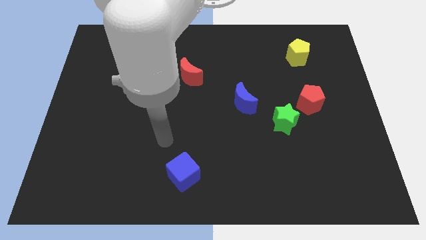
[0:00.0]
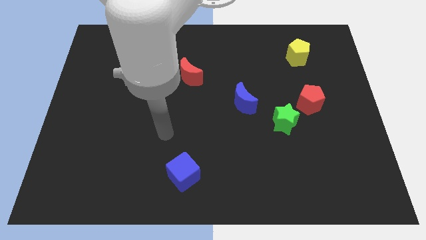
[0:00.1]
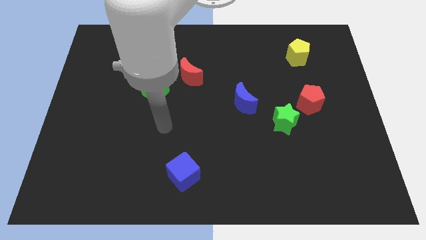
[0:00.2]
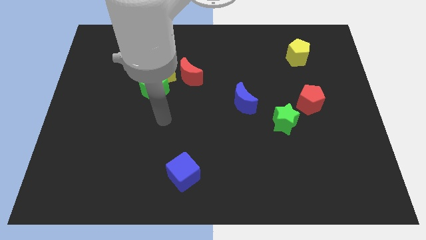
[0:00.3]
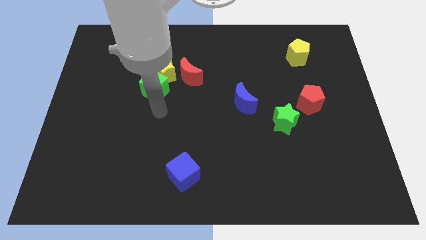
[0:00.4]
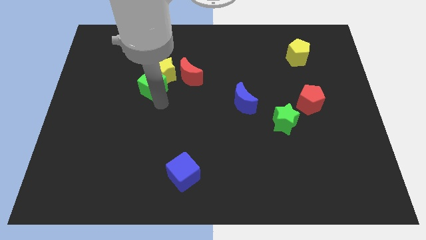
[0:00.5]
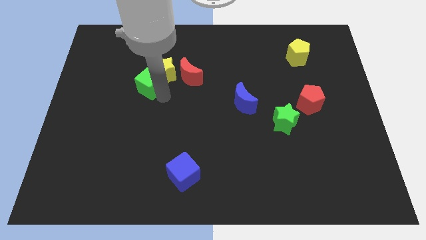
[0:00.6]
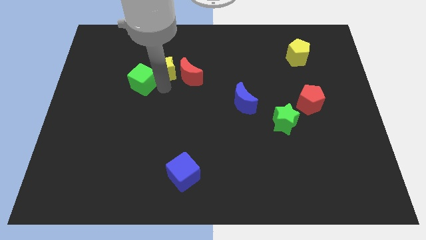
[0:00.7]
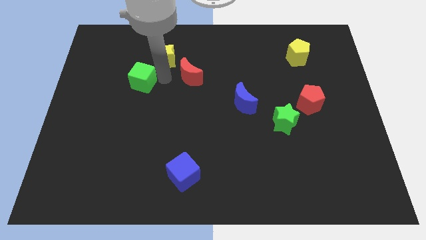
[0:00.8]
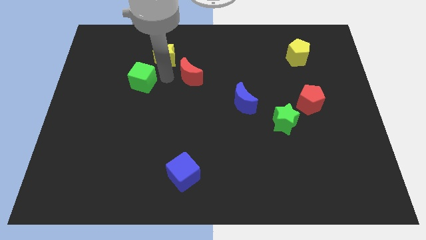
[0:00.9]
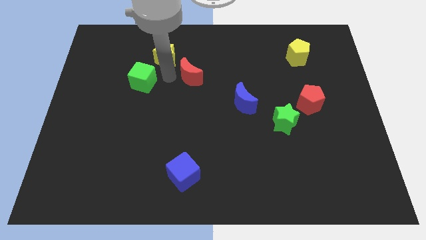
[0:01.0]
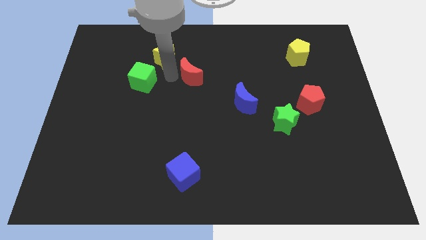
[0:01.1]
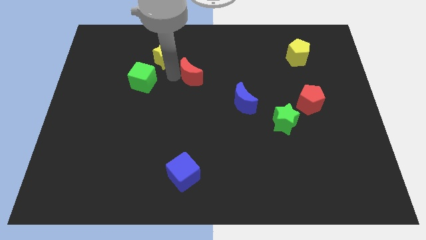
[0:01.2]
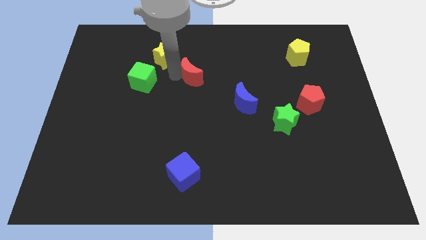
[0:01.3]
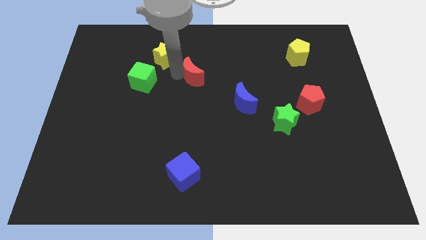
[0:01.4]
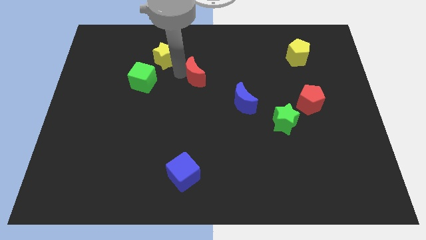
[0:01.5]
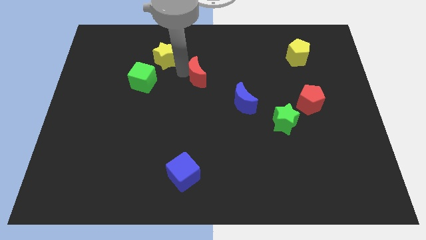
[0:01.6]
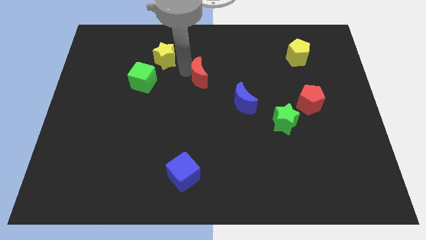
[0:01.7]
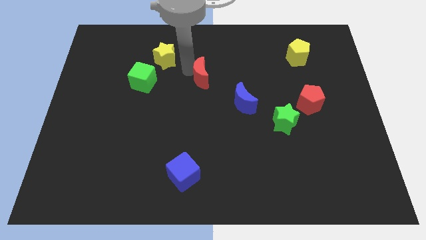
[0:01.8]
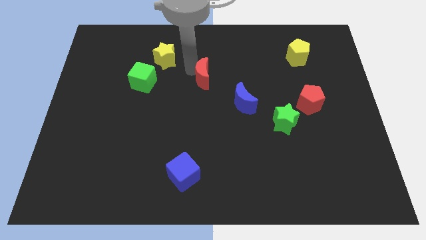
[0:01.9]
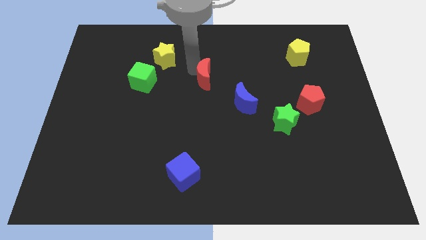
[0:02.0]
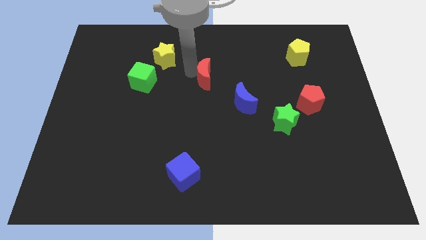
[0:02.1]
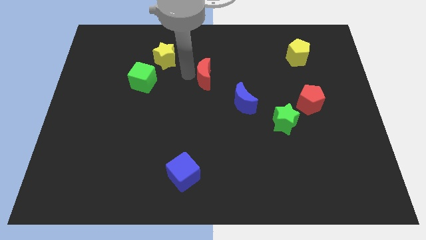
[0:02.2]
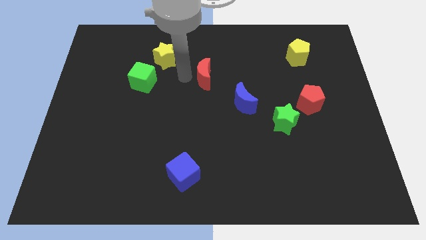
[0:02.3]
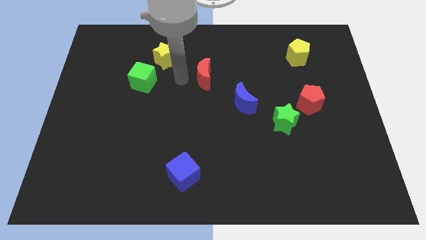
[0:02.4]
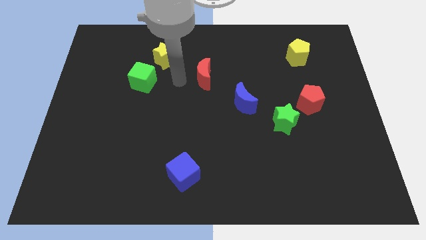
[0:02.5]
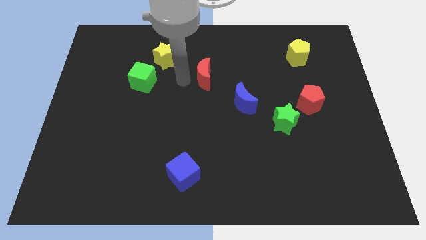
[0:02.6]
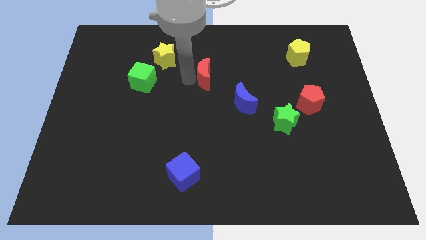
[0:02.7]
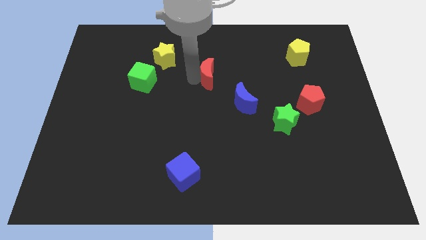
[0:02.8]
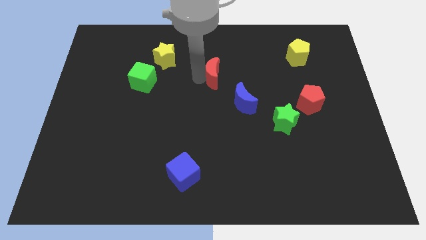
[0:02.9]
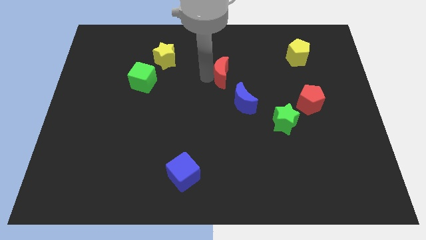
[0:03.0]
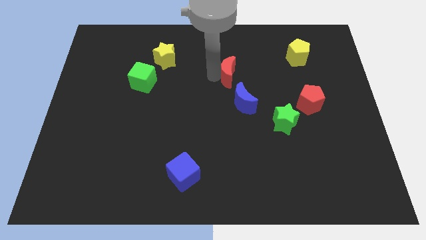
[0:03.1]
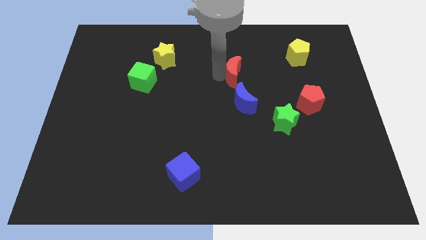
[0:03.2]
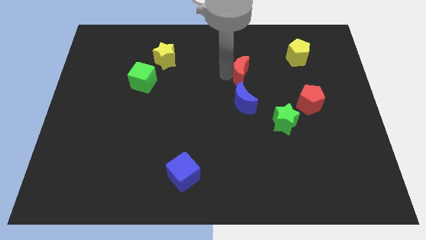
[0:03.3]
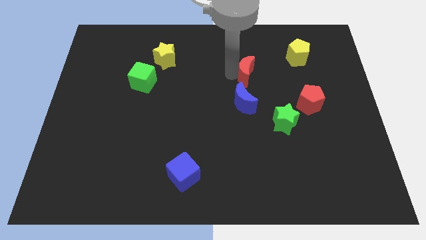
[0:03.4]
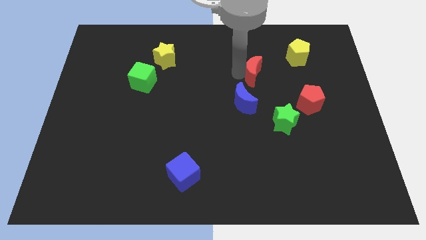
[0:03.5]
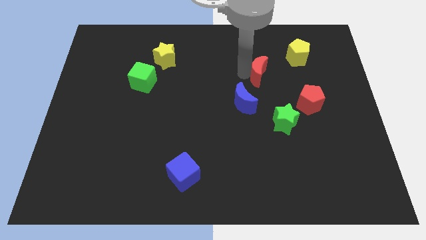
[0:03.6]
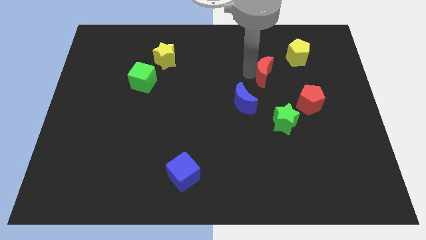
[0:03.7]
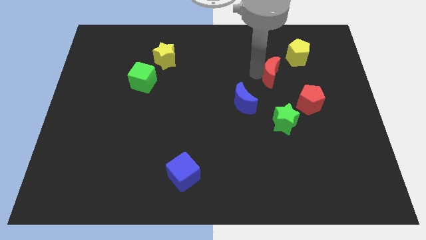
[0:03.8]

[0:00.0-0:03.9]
move the red moon to the right

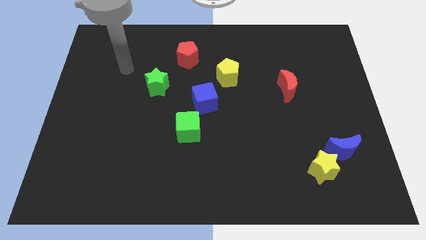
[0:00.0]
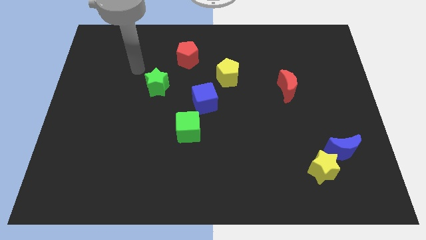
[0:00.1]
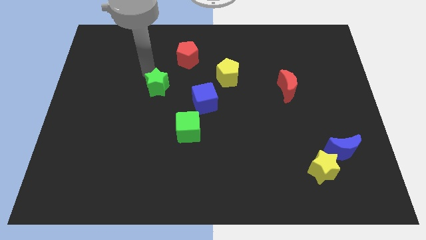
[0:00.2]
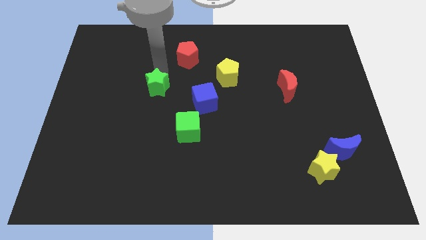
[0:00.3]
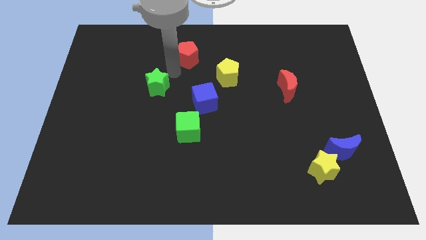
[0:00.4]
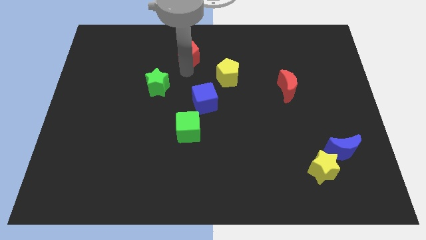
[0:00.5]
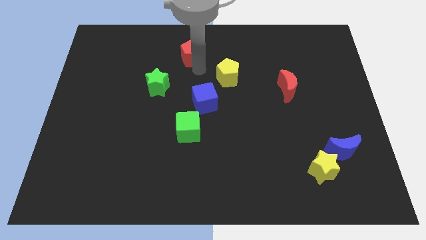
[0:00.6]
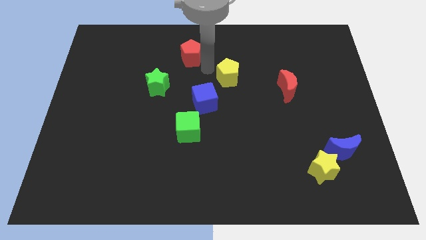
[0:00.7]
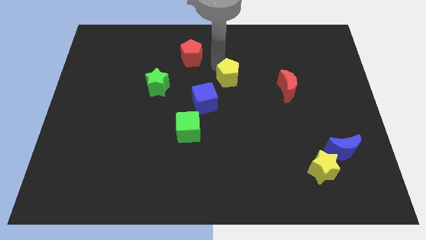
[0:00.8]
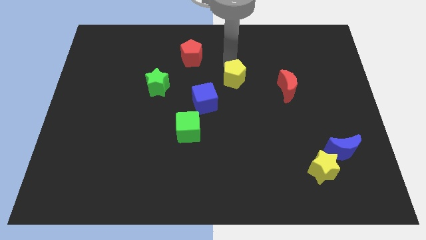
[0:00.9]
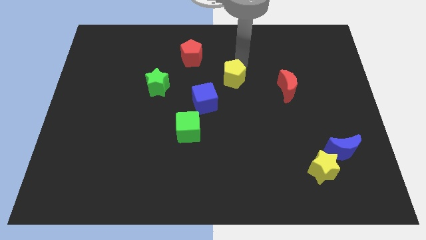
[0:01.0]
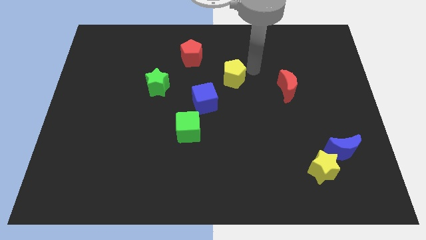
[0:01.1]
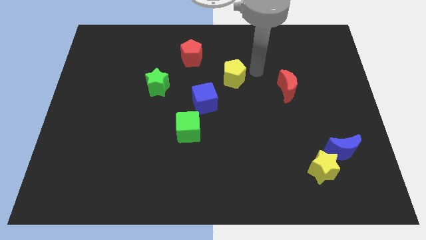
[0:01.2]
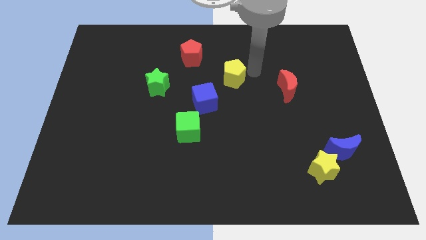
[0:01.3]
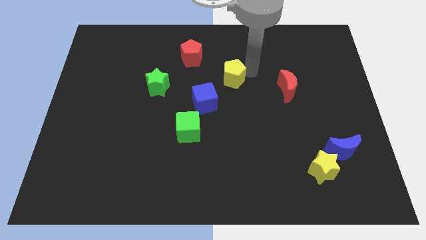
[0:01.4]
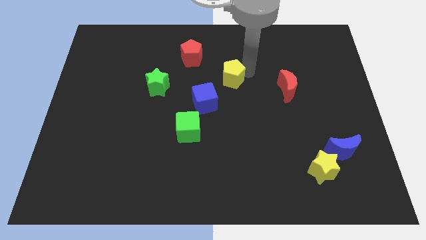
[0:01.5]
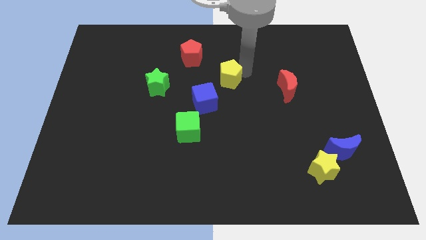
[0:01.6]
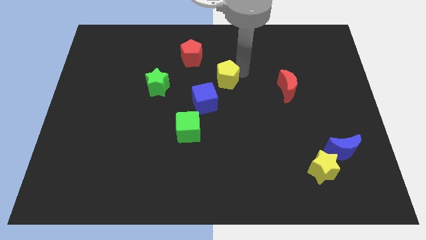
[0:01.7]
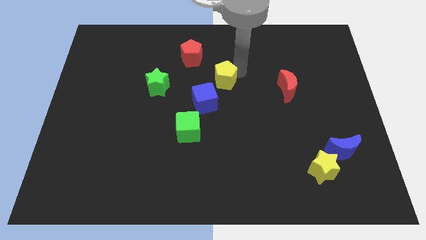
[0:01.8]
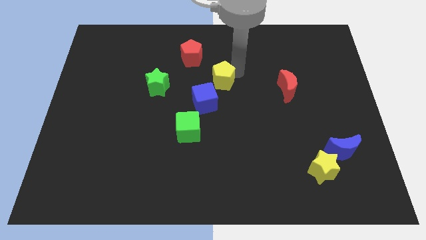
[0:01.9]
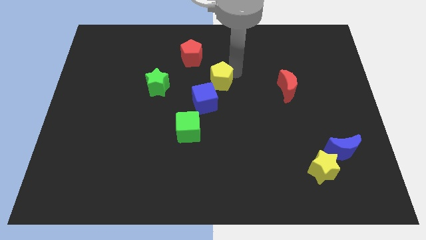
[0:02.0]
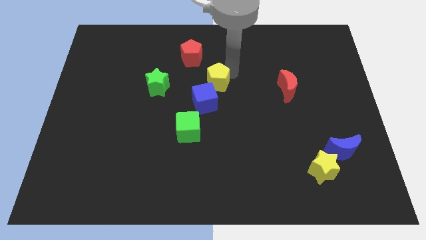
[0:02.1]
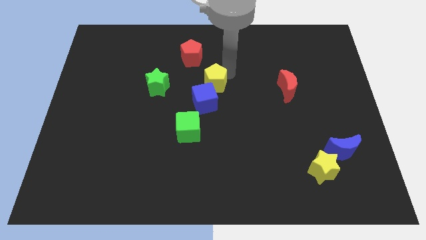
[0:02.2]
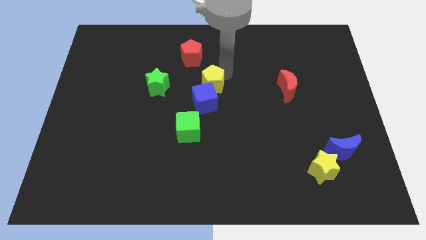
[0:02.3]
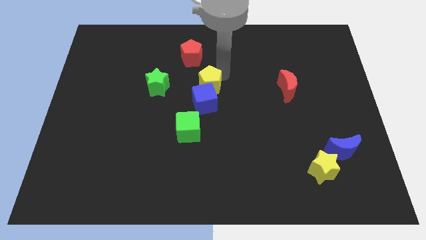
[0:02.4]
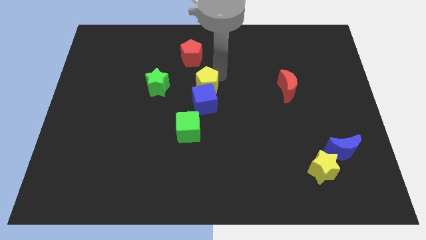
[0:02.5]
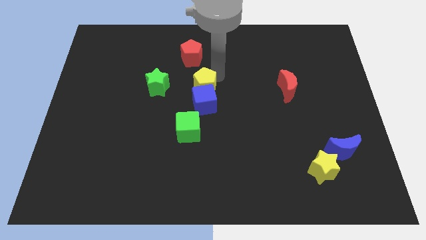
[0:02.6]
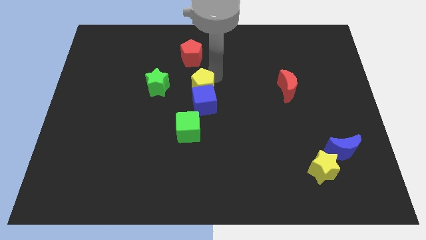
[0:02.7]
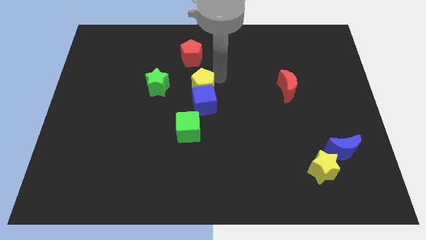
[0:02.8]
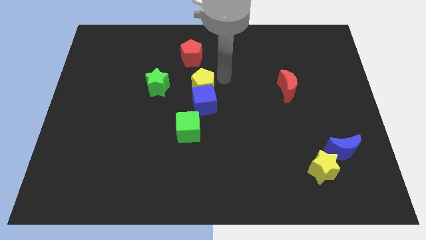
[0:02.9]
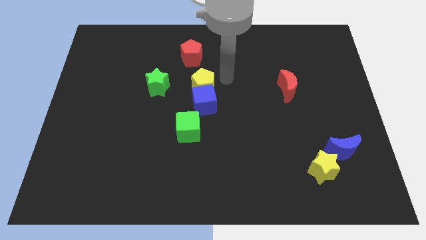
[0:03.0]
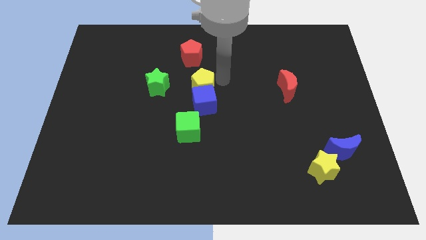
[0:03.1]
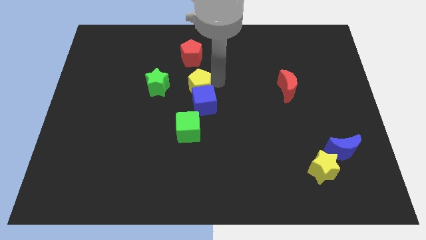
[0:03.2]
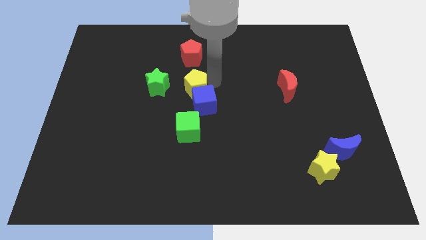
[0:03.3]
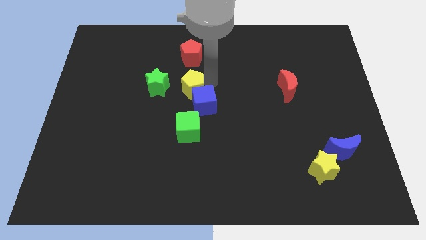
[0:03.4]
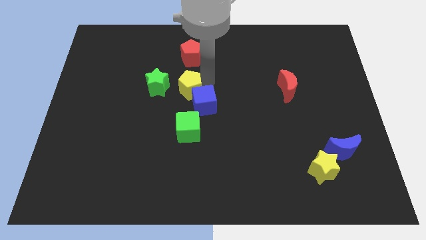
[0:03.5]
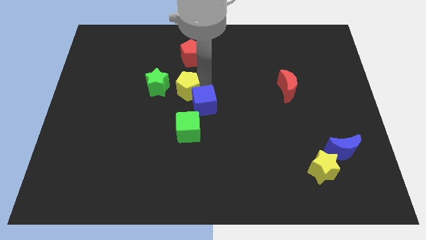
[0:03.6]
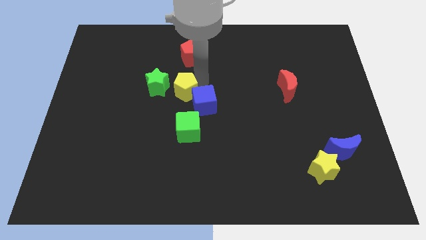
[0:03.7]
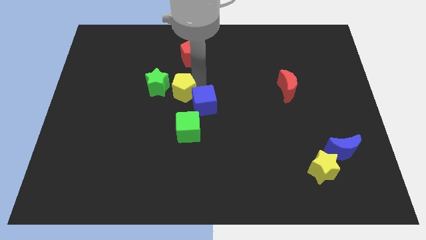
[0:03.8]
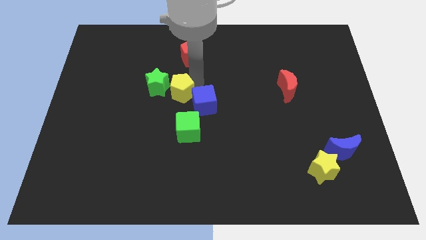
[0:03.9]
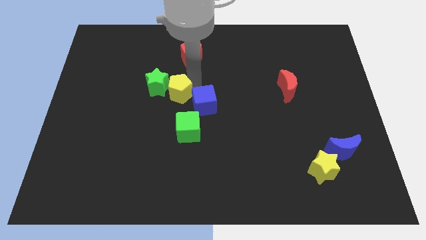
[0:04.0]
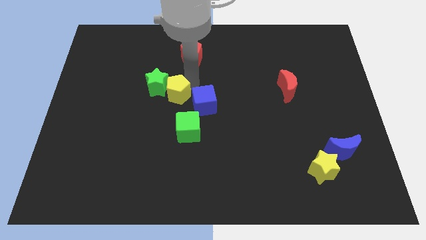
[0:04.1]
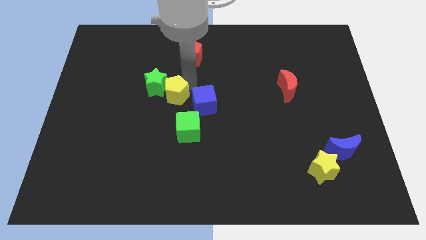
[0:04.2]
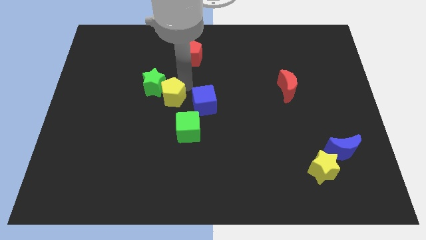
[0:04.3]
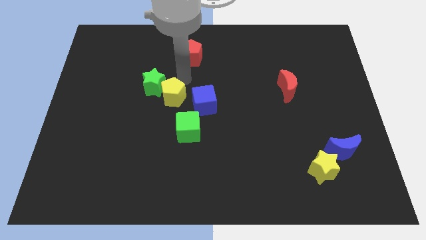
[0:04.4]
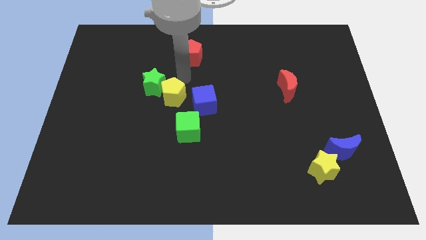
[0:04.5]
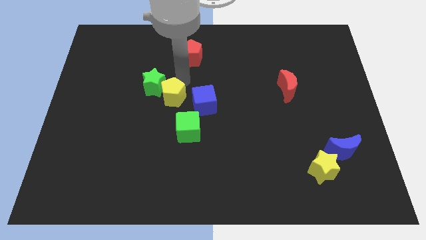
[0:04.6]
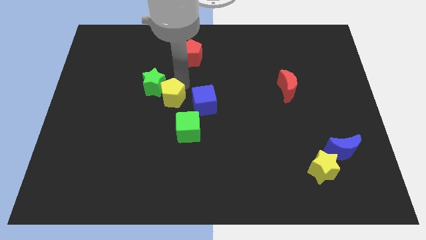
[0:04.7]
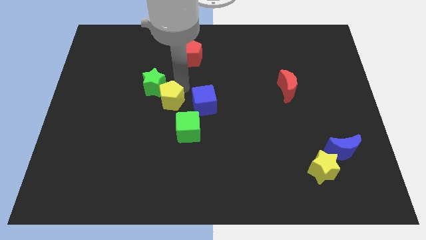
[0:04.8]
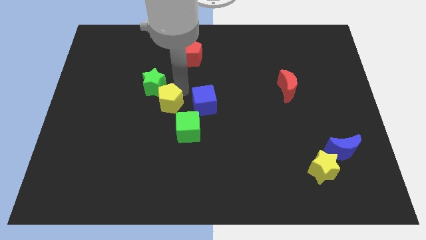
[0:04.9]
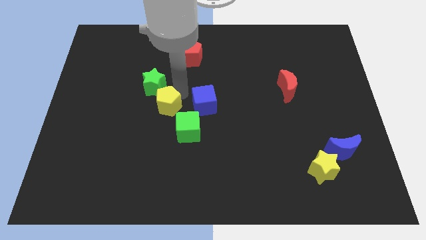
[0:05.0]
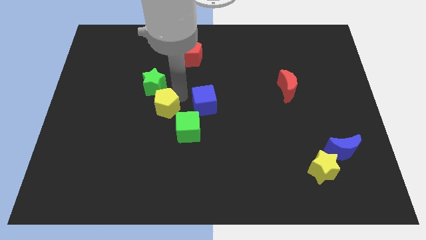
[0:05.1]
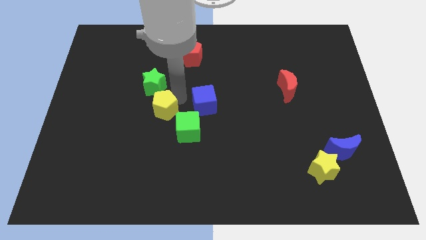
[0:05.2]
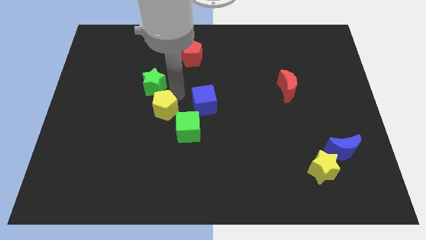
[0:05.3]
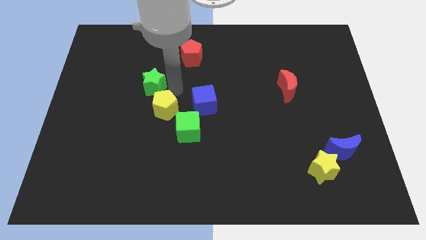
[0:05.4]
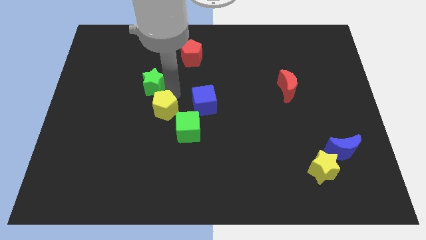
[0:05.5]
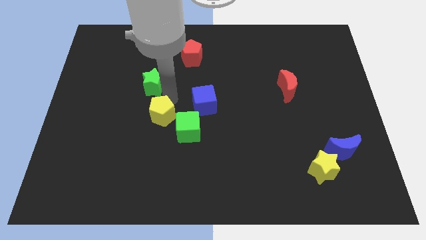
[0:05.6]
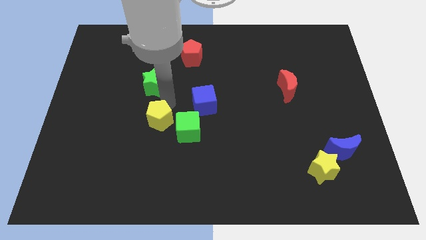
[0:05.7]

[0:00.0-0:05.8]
move the yellow pentagon diagonally downwards and left
